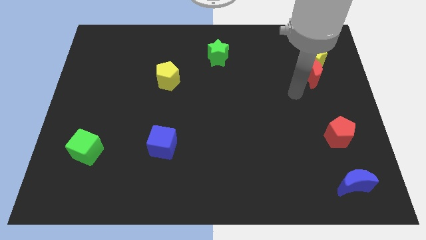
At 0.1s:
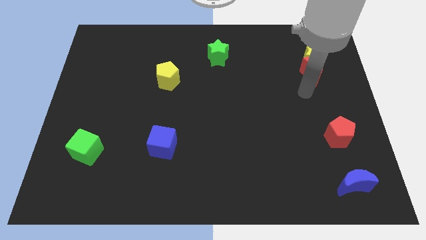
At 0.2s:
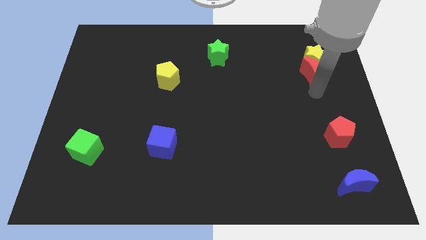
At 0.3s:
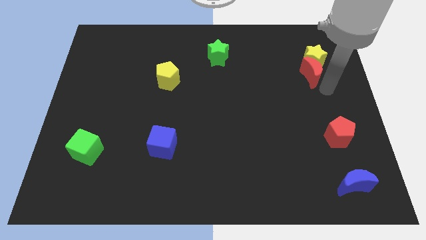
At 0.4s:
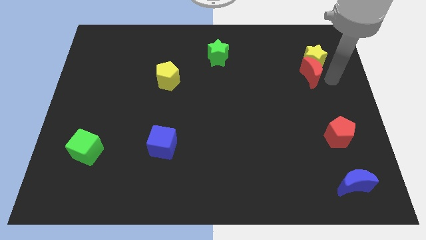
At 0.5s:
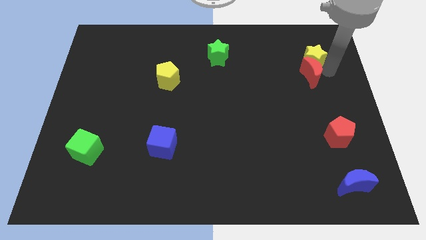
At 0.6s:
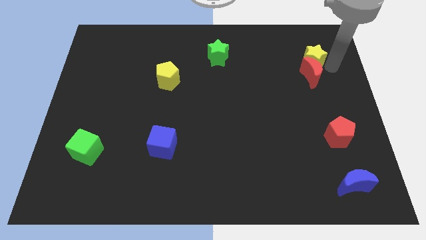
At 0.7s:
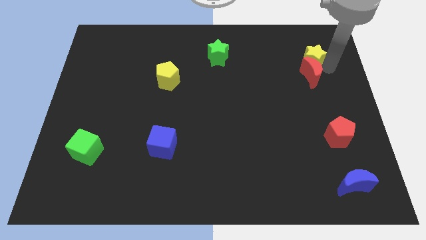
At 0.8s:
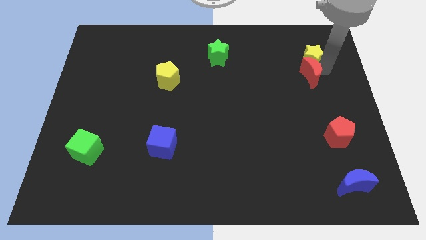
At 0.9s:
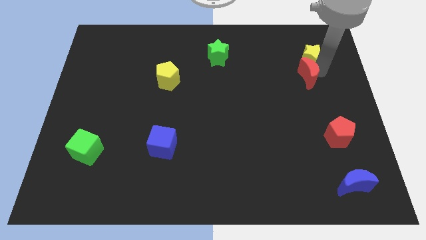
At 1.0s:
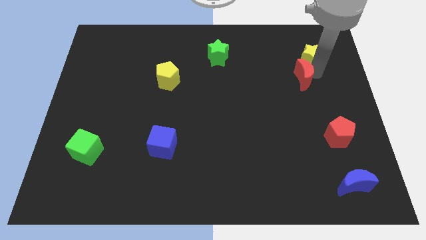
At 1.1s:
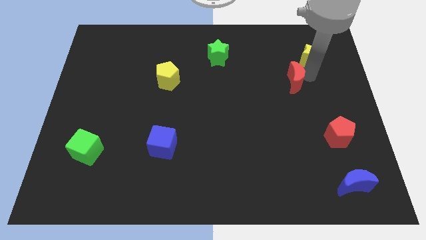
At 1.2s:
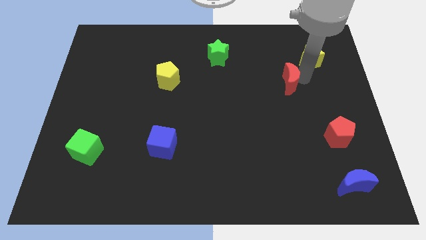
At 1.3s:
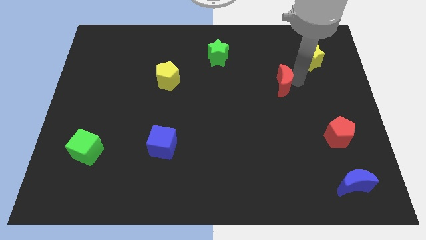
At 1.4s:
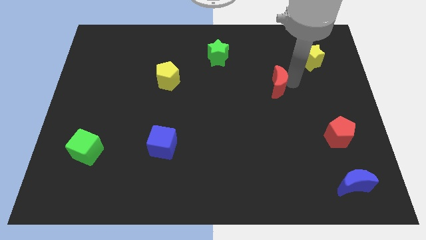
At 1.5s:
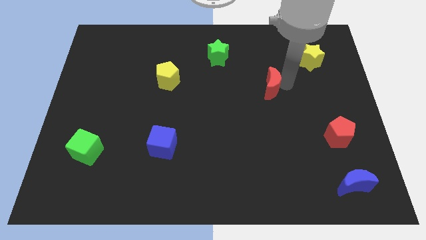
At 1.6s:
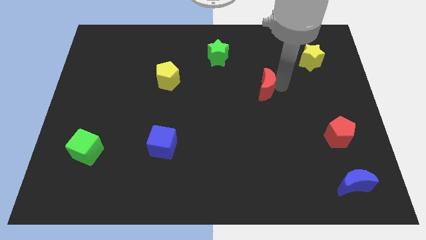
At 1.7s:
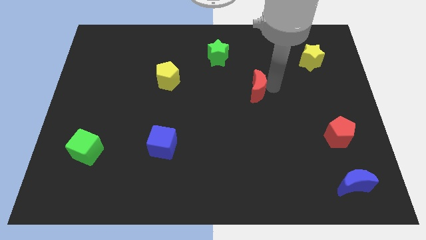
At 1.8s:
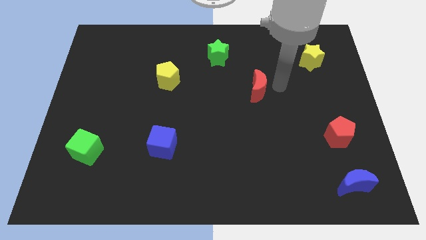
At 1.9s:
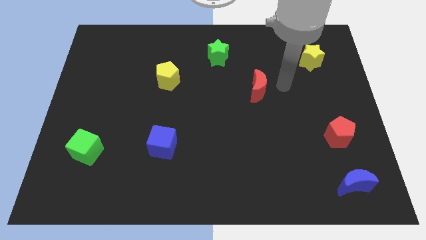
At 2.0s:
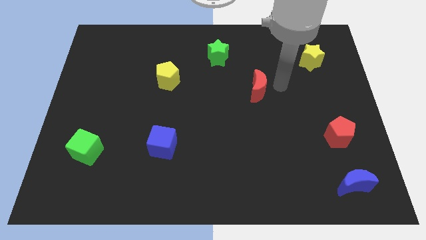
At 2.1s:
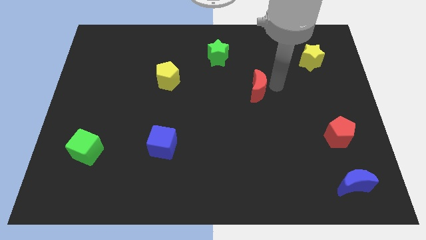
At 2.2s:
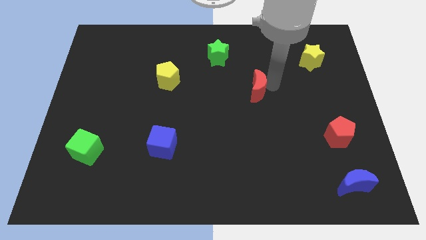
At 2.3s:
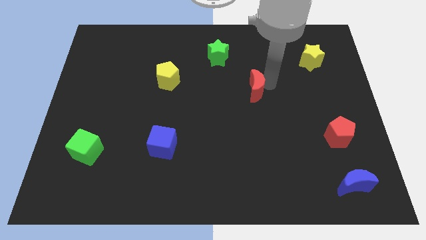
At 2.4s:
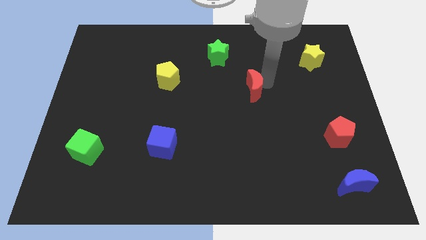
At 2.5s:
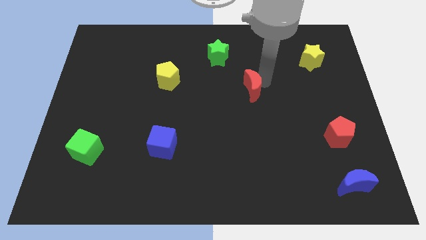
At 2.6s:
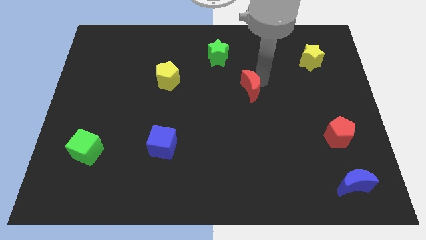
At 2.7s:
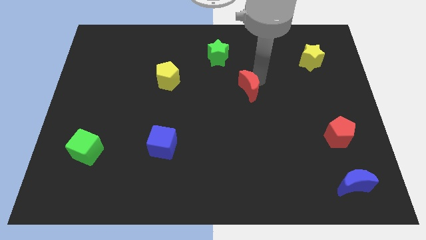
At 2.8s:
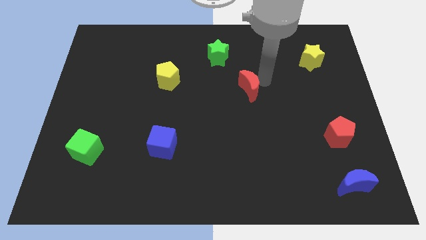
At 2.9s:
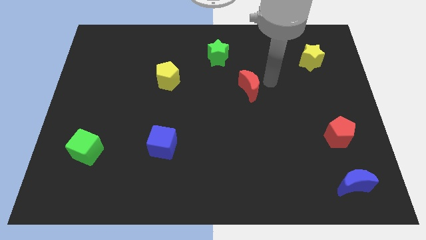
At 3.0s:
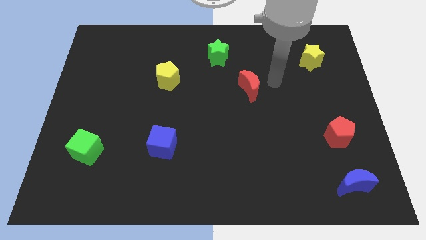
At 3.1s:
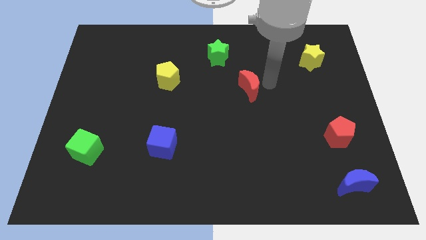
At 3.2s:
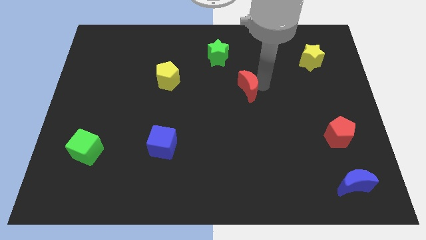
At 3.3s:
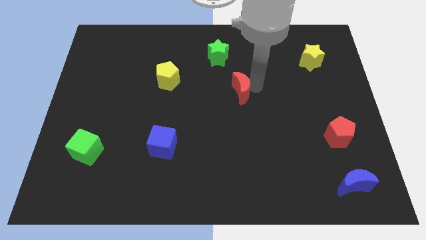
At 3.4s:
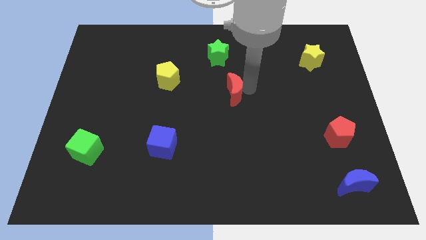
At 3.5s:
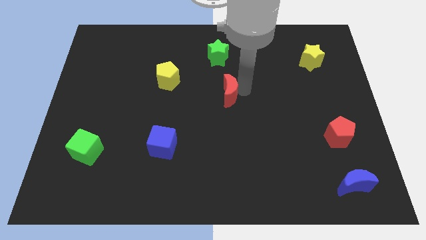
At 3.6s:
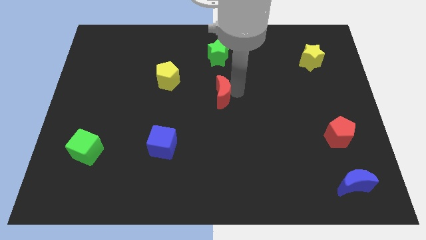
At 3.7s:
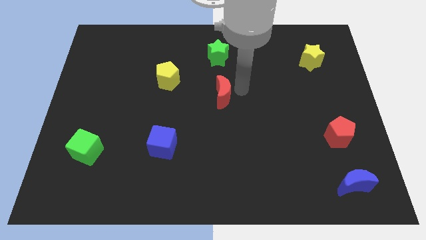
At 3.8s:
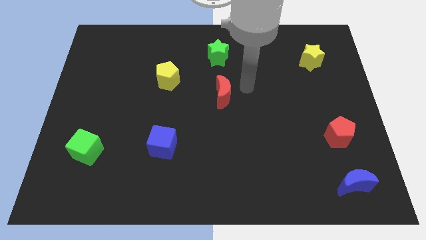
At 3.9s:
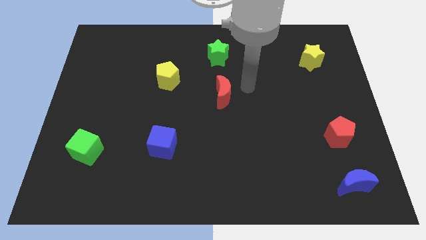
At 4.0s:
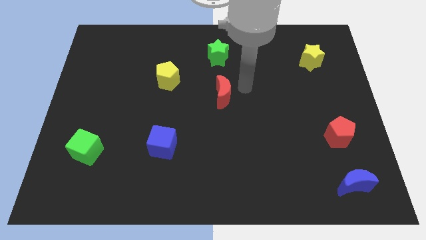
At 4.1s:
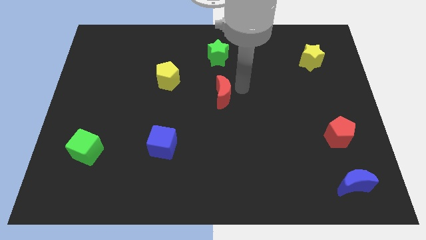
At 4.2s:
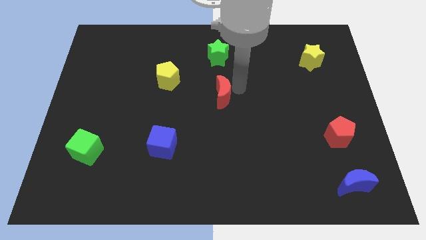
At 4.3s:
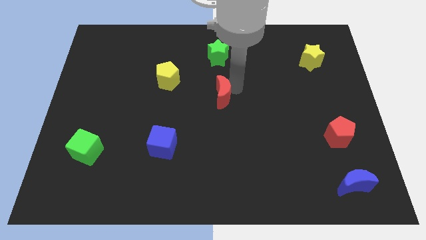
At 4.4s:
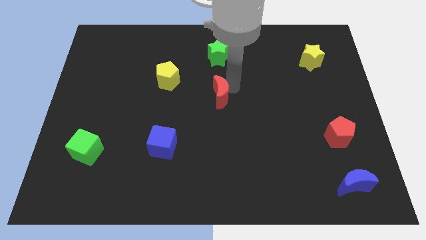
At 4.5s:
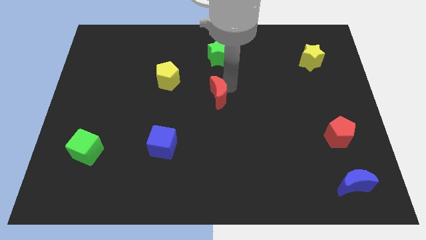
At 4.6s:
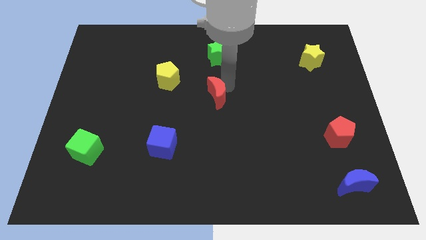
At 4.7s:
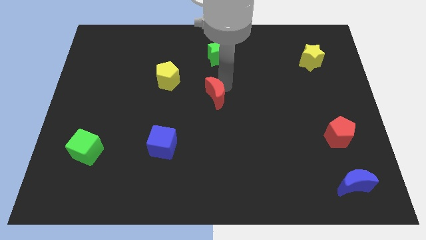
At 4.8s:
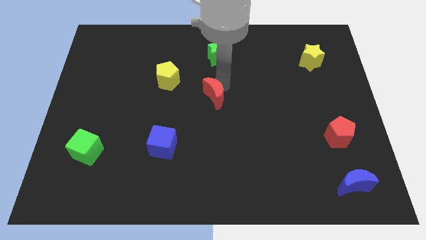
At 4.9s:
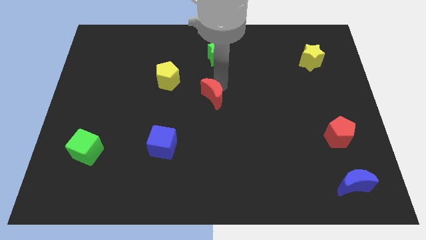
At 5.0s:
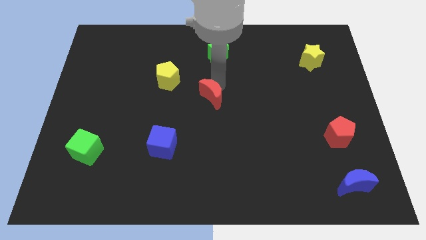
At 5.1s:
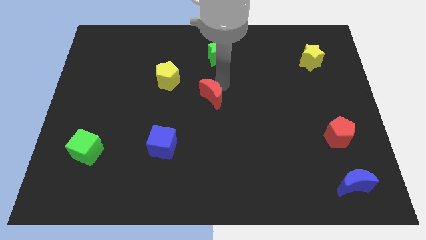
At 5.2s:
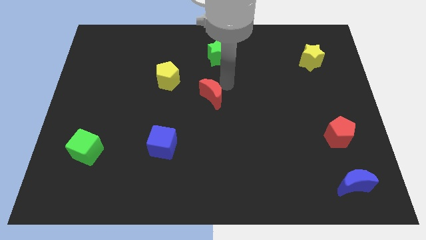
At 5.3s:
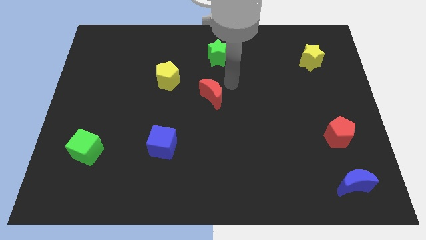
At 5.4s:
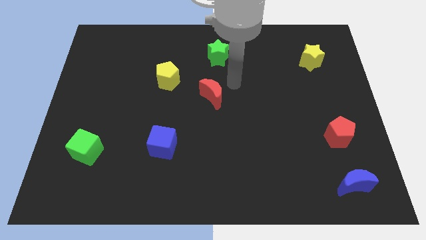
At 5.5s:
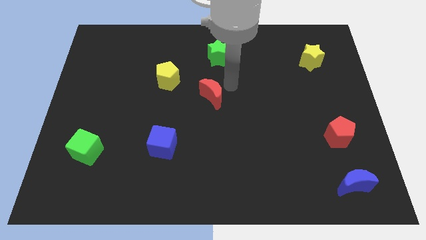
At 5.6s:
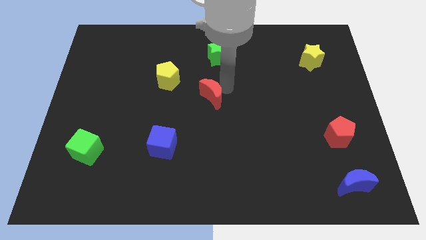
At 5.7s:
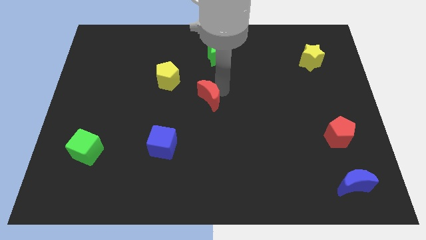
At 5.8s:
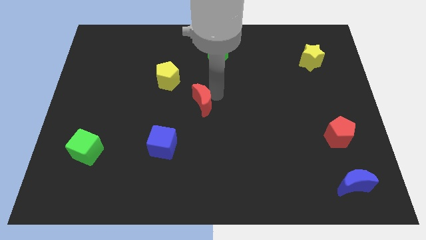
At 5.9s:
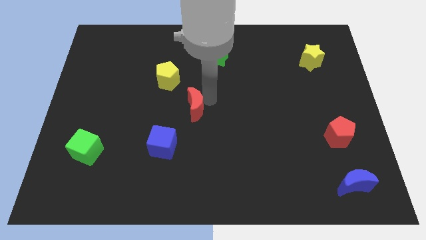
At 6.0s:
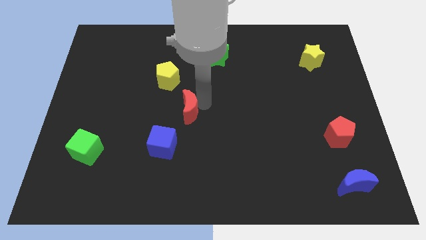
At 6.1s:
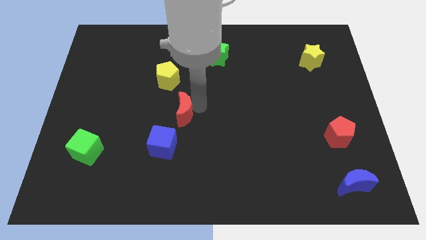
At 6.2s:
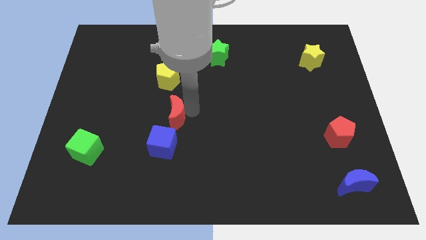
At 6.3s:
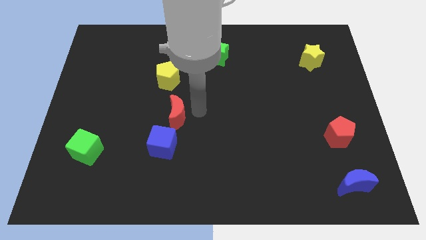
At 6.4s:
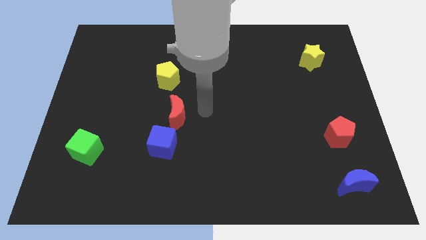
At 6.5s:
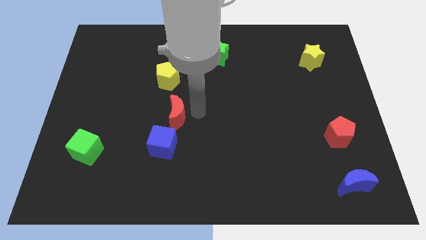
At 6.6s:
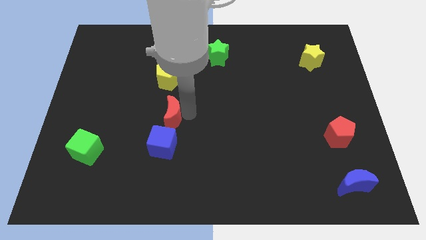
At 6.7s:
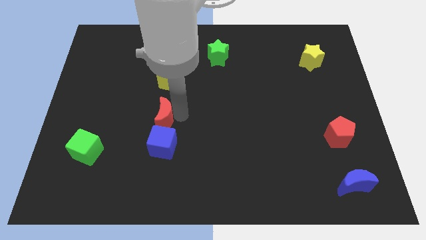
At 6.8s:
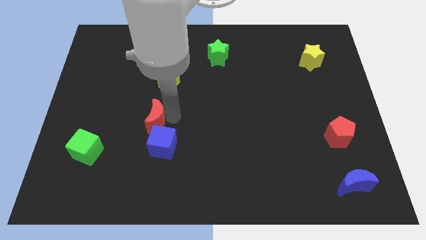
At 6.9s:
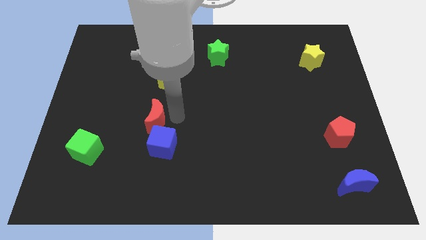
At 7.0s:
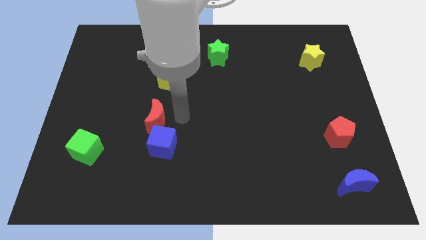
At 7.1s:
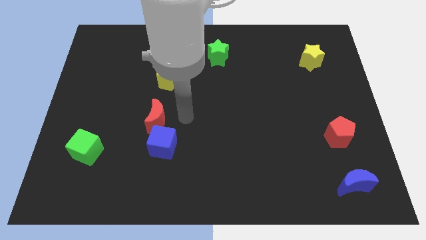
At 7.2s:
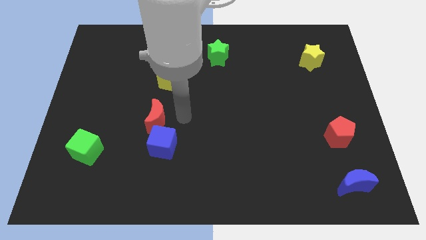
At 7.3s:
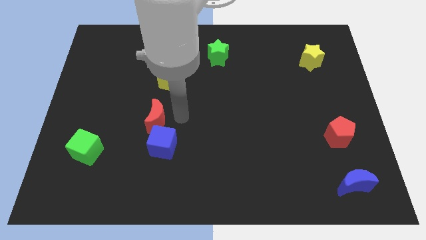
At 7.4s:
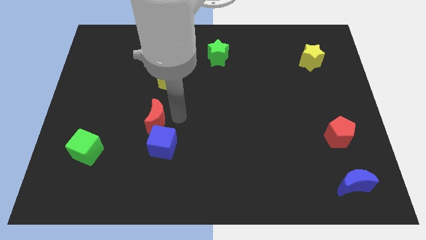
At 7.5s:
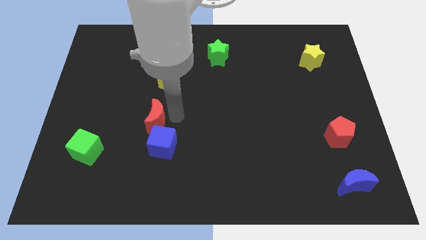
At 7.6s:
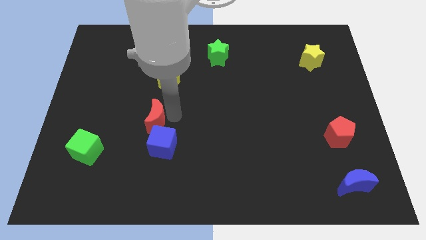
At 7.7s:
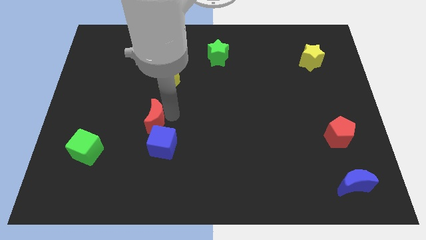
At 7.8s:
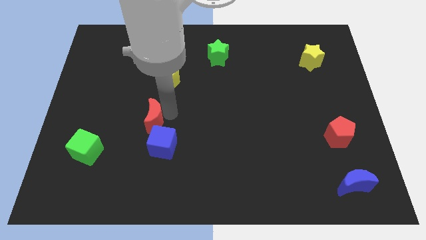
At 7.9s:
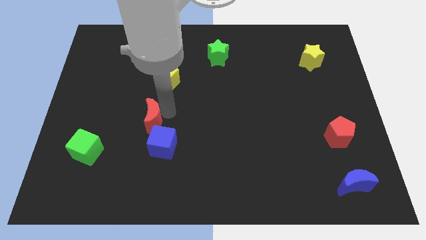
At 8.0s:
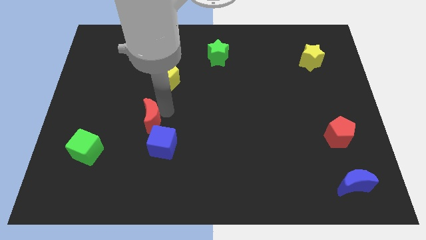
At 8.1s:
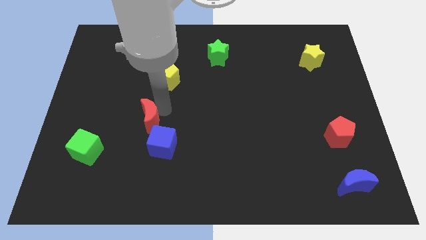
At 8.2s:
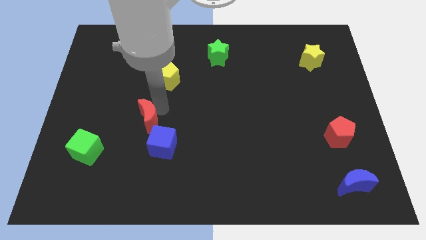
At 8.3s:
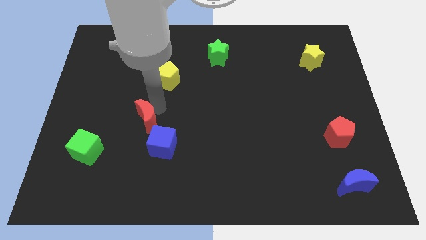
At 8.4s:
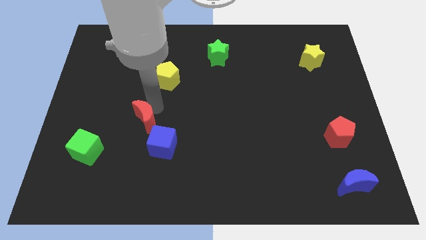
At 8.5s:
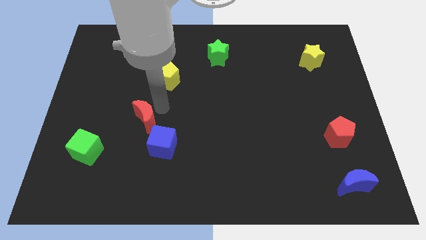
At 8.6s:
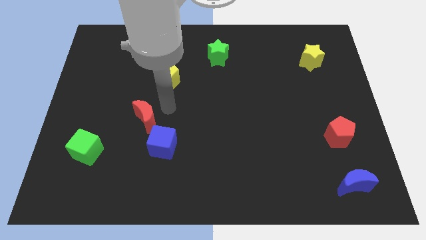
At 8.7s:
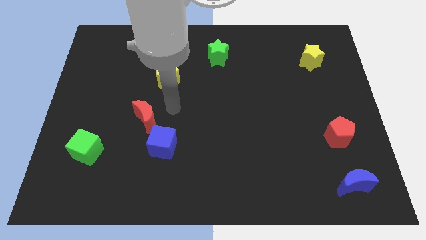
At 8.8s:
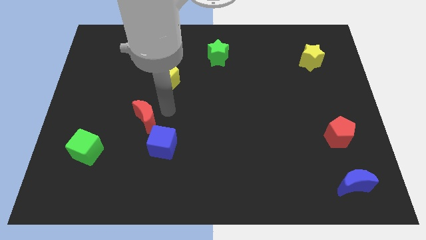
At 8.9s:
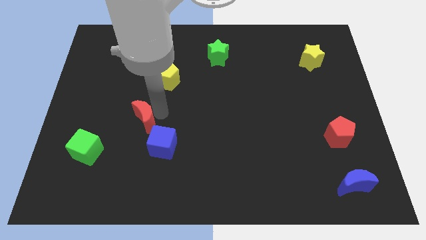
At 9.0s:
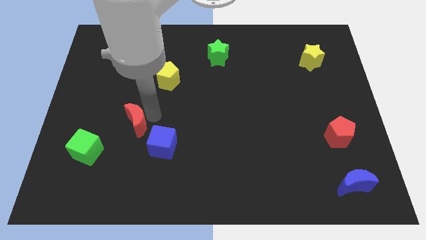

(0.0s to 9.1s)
push the red moon to the top right side of the green cube
